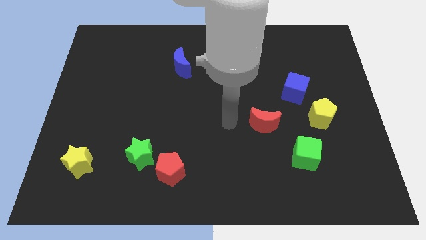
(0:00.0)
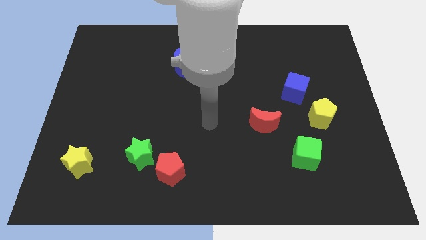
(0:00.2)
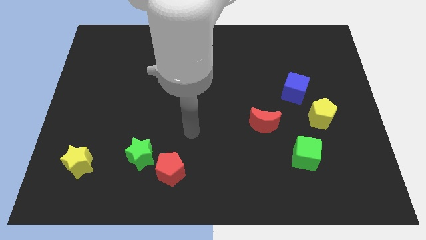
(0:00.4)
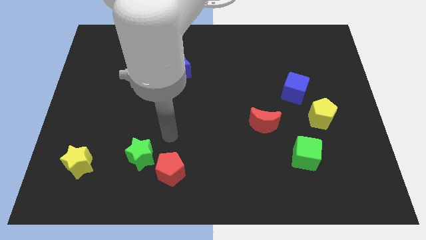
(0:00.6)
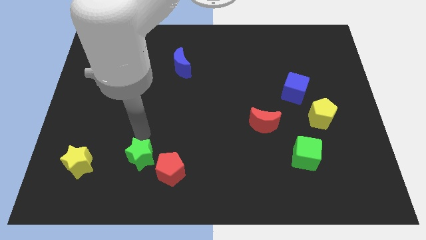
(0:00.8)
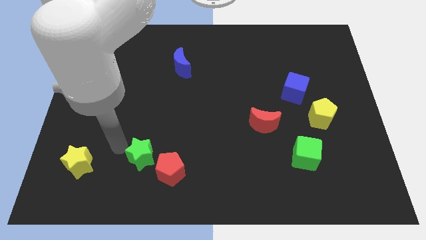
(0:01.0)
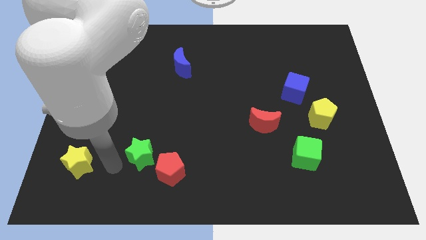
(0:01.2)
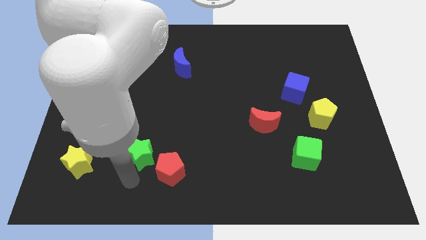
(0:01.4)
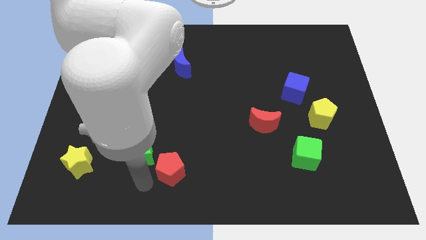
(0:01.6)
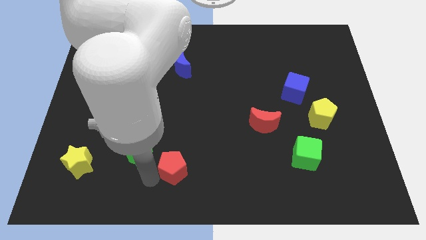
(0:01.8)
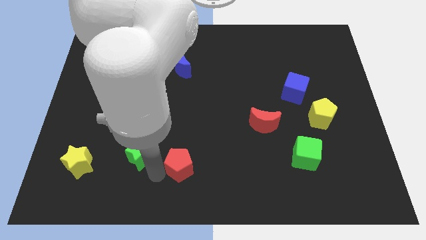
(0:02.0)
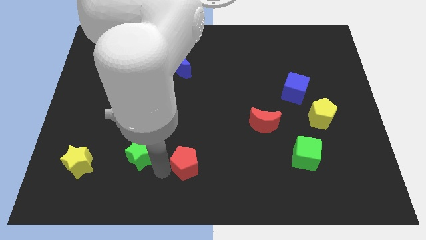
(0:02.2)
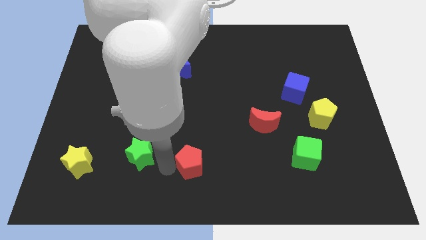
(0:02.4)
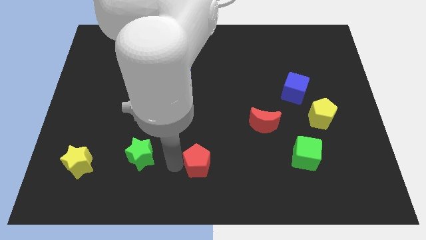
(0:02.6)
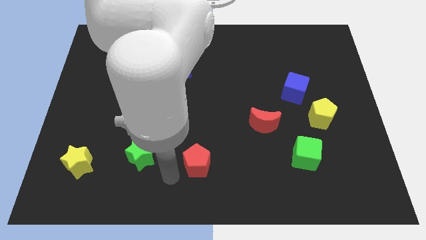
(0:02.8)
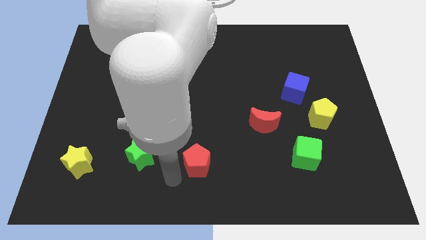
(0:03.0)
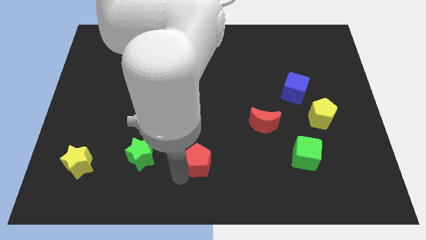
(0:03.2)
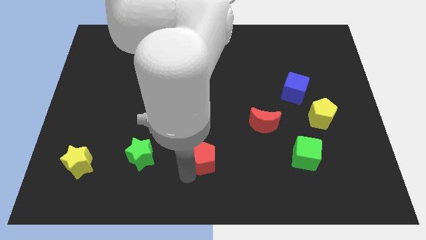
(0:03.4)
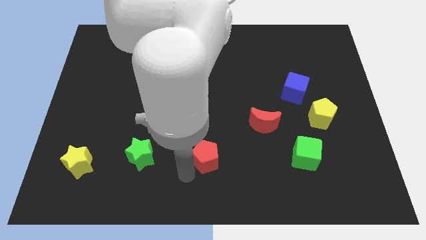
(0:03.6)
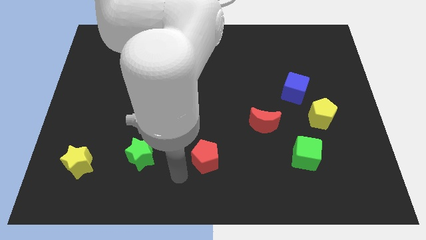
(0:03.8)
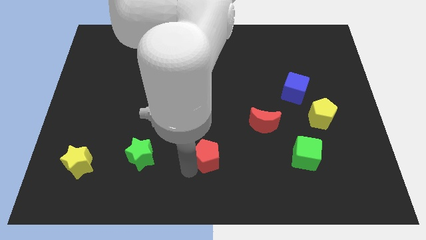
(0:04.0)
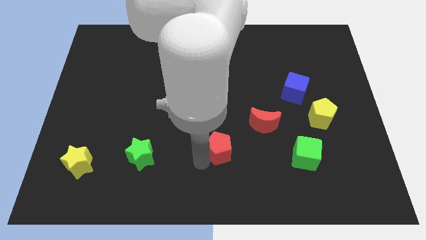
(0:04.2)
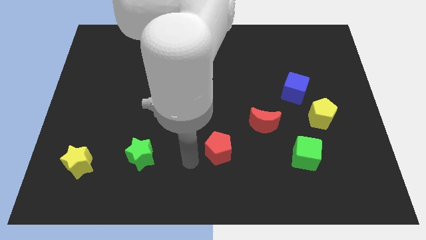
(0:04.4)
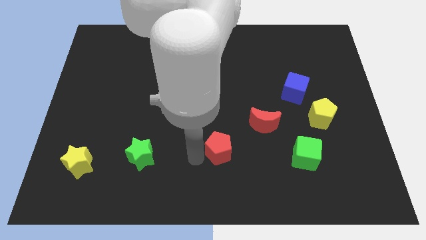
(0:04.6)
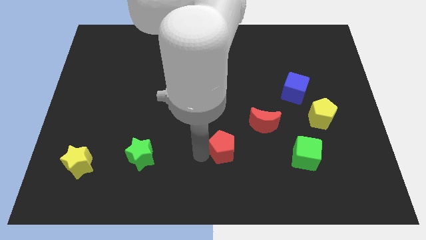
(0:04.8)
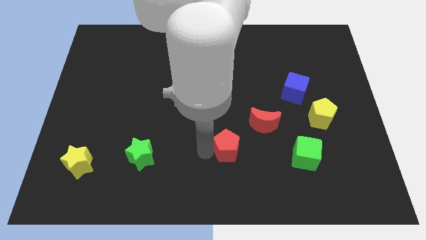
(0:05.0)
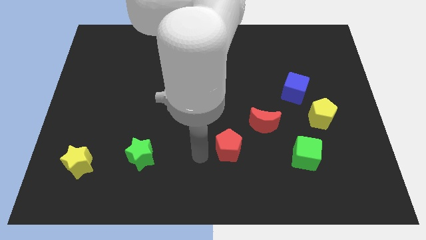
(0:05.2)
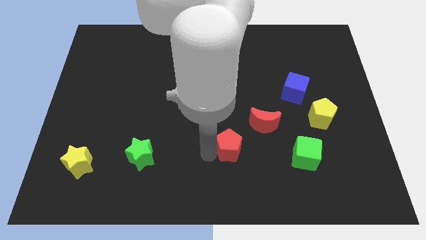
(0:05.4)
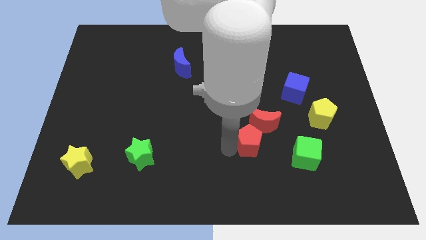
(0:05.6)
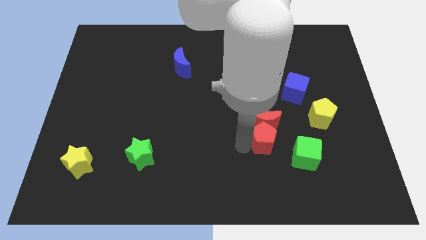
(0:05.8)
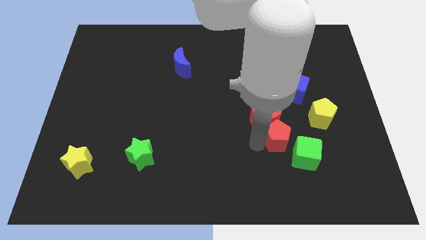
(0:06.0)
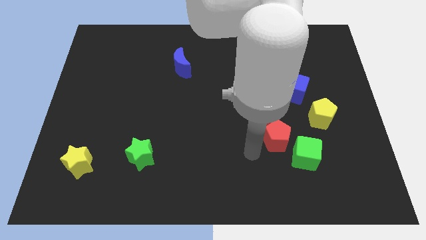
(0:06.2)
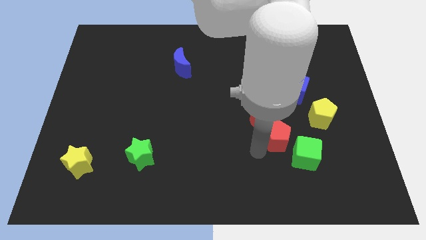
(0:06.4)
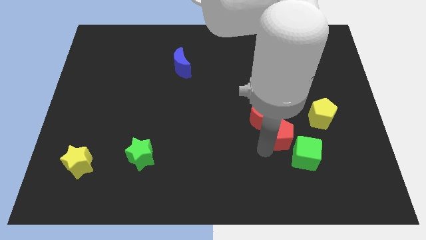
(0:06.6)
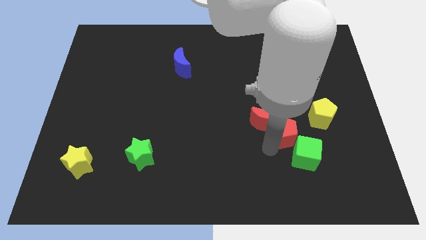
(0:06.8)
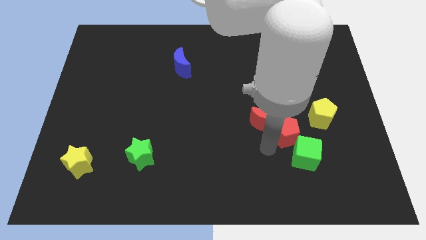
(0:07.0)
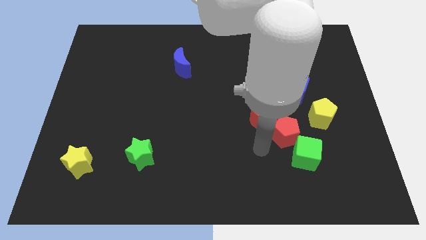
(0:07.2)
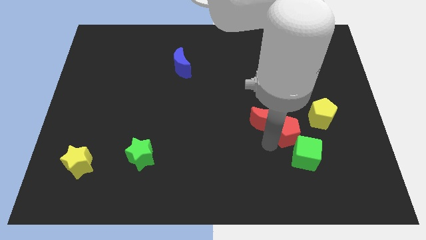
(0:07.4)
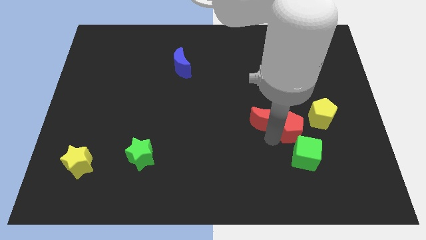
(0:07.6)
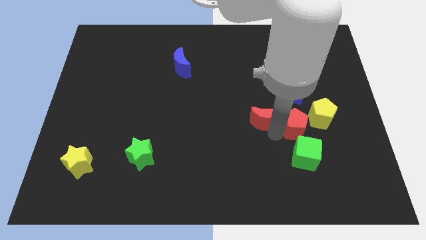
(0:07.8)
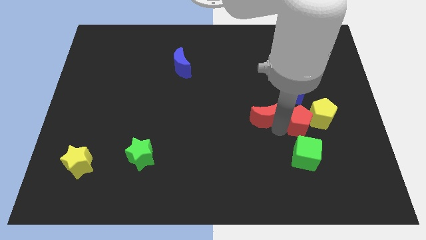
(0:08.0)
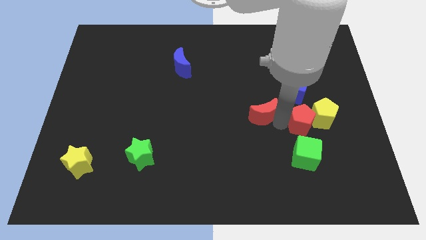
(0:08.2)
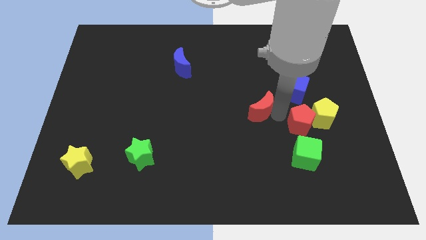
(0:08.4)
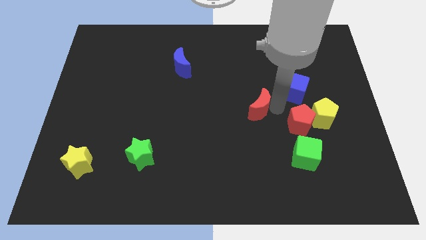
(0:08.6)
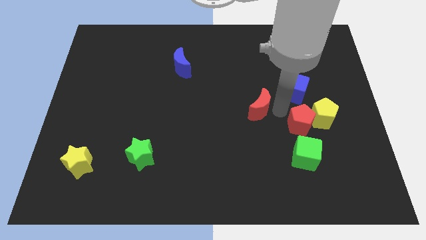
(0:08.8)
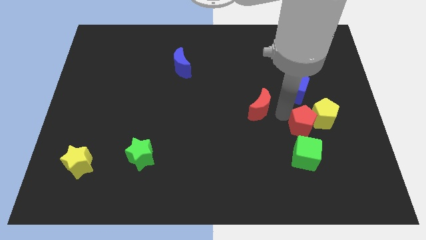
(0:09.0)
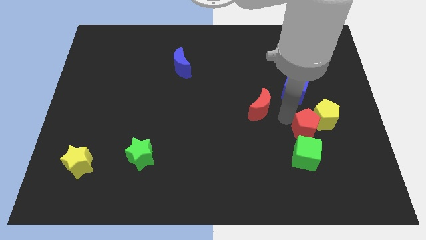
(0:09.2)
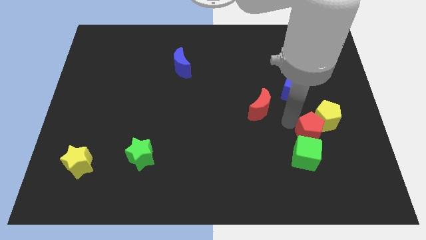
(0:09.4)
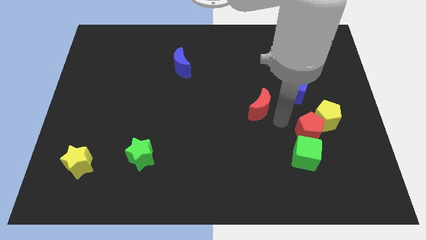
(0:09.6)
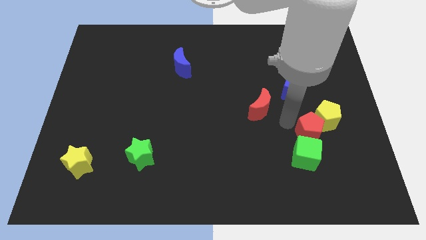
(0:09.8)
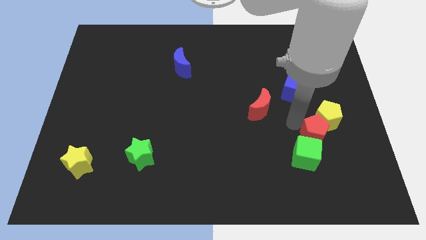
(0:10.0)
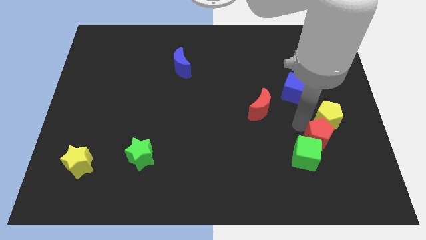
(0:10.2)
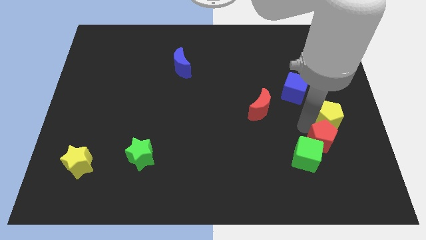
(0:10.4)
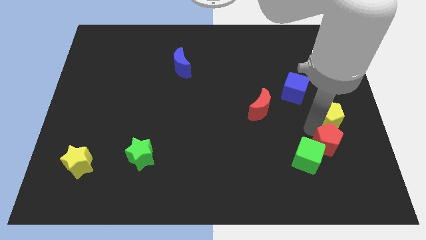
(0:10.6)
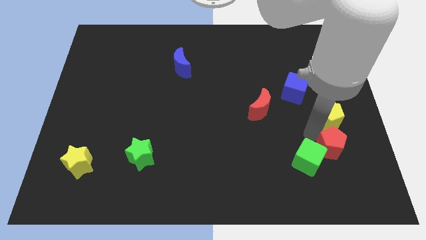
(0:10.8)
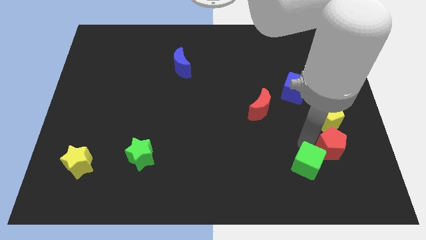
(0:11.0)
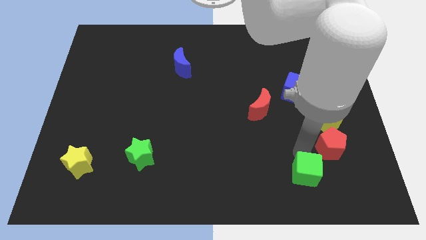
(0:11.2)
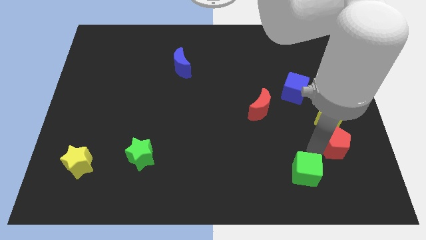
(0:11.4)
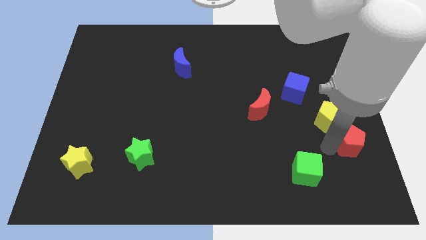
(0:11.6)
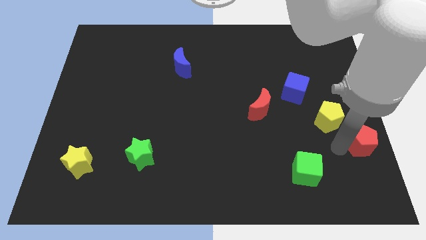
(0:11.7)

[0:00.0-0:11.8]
push the red pentagon to the right side of the board

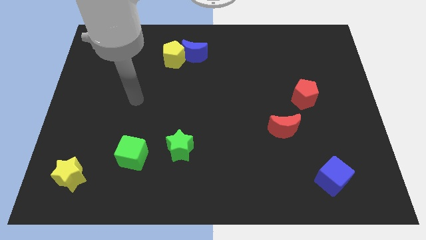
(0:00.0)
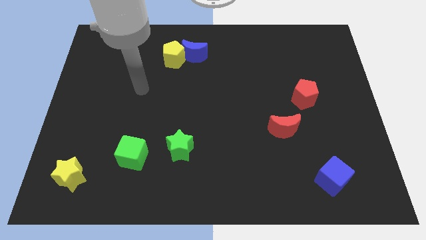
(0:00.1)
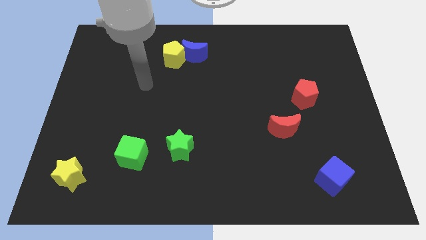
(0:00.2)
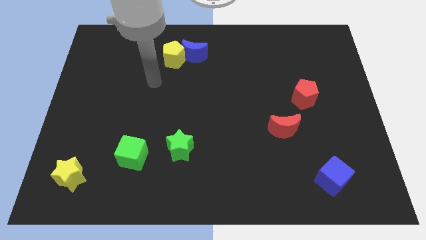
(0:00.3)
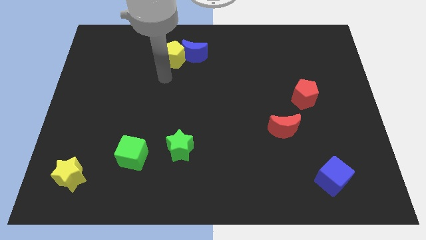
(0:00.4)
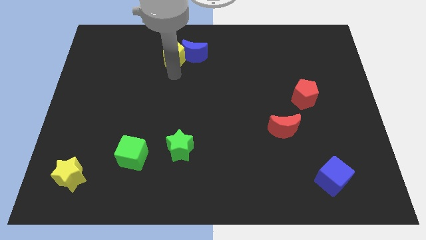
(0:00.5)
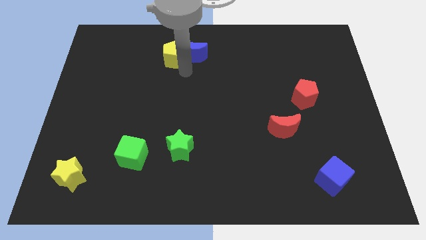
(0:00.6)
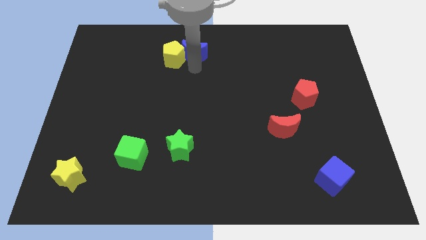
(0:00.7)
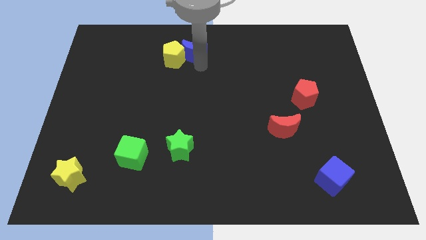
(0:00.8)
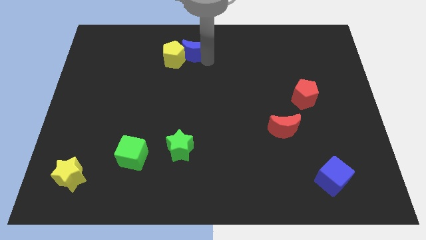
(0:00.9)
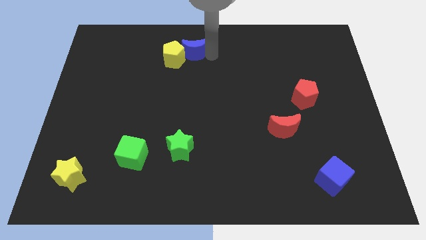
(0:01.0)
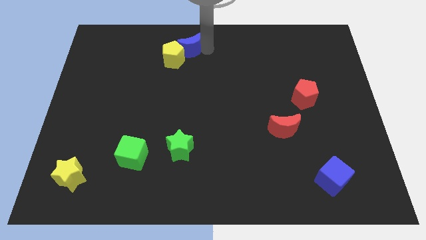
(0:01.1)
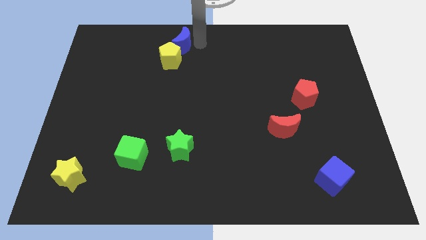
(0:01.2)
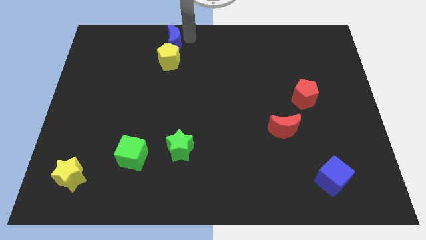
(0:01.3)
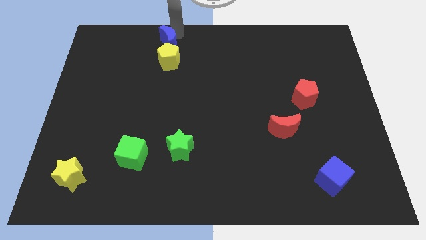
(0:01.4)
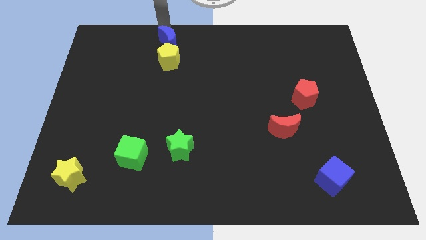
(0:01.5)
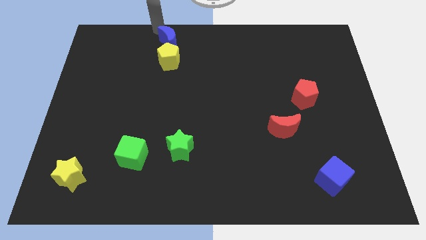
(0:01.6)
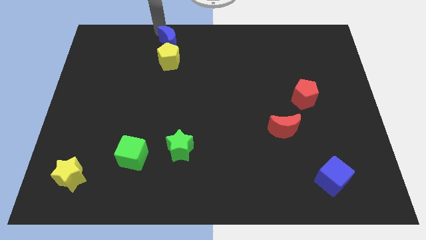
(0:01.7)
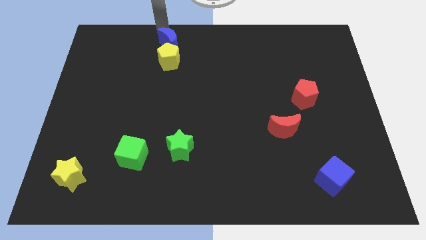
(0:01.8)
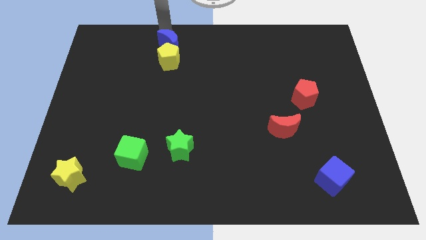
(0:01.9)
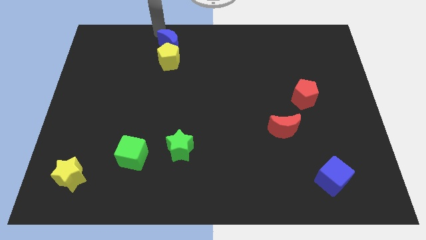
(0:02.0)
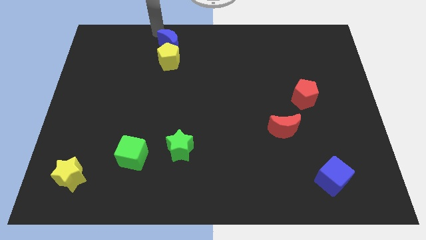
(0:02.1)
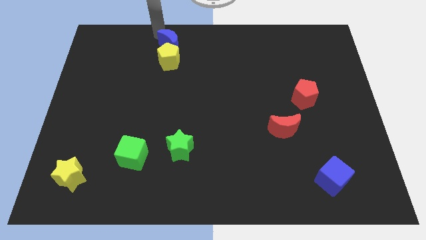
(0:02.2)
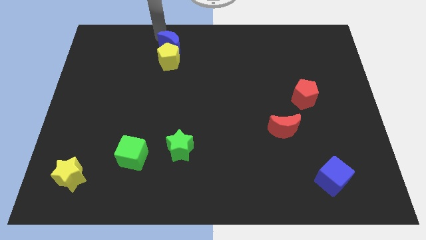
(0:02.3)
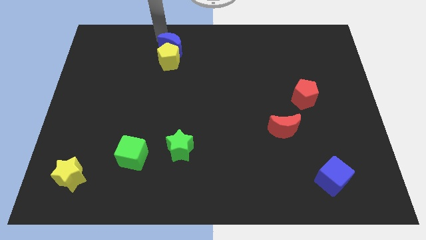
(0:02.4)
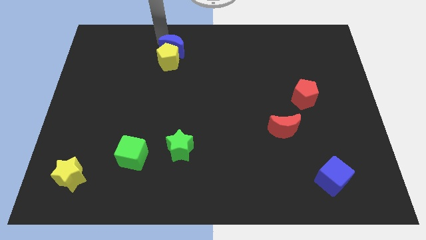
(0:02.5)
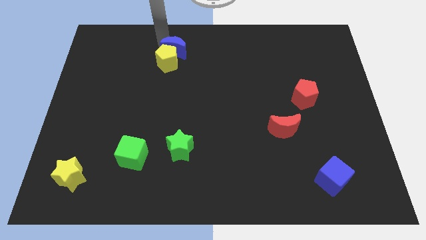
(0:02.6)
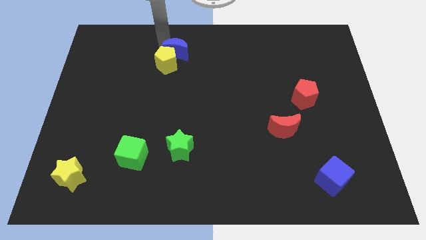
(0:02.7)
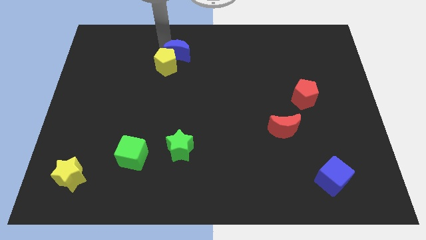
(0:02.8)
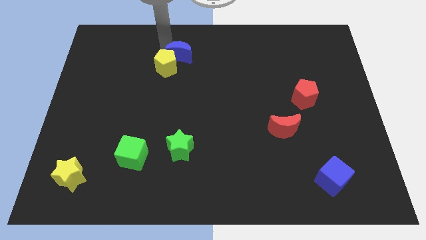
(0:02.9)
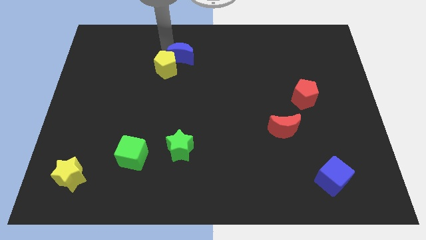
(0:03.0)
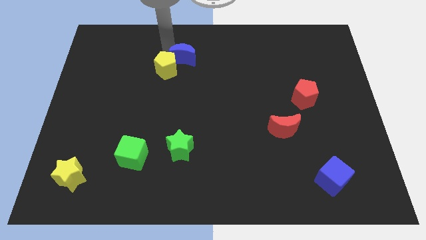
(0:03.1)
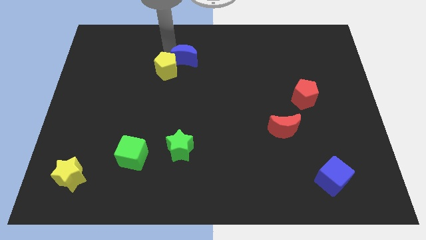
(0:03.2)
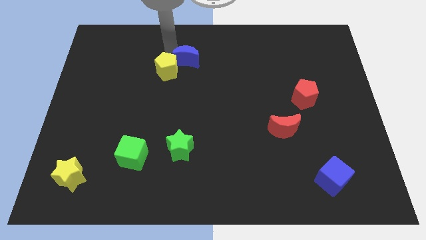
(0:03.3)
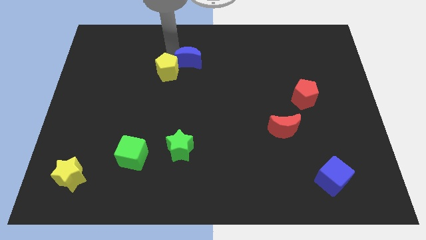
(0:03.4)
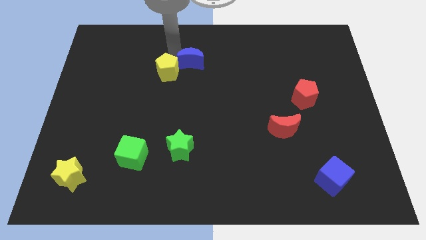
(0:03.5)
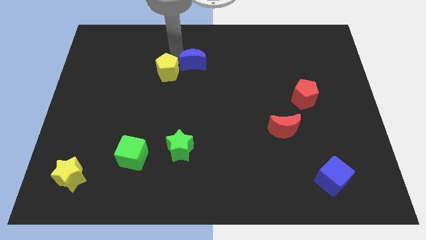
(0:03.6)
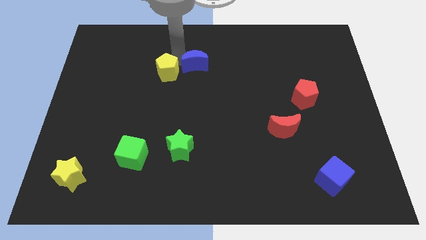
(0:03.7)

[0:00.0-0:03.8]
move the blue moon to the middle of the board
